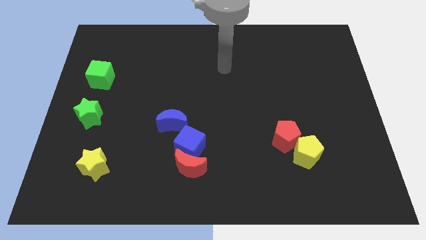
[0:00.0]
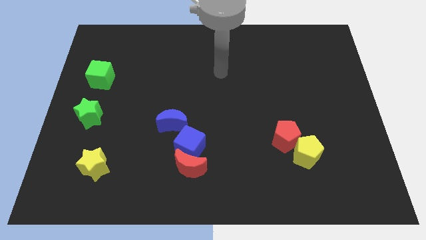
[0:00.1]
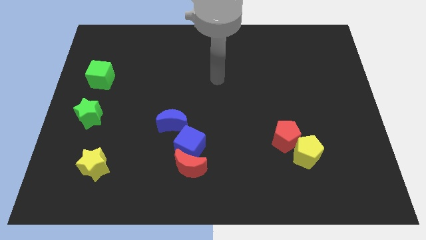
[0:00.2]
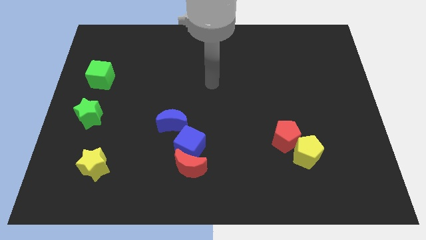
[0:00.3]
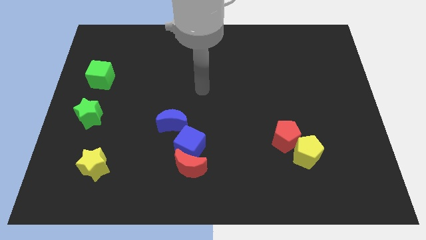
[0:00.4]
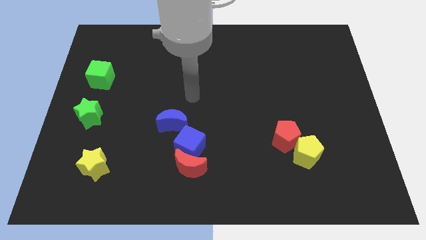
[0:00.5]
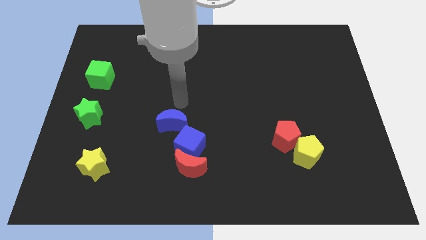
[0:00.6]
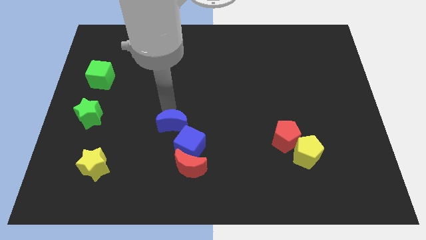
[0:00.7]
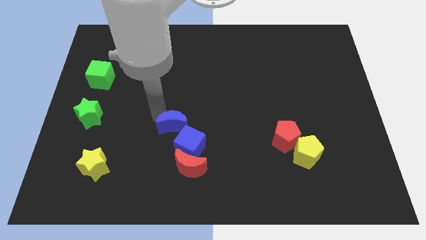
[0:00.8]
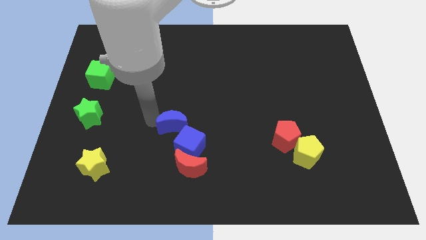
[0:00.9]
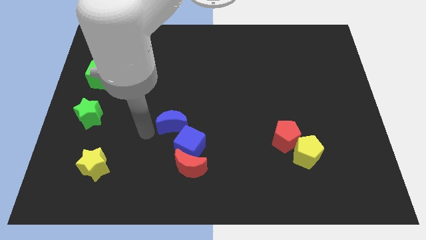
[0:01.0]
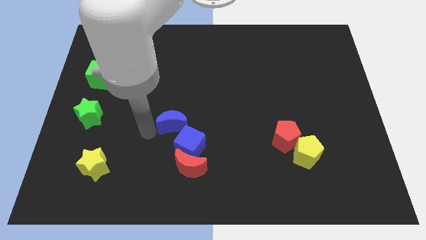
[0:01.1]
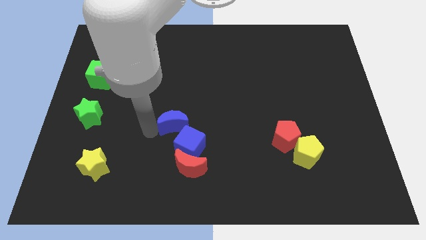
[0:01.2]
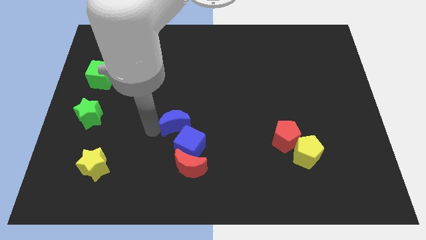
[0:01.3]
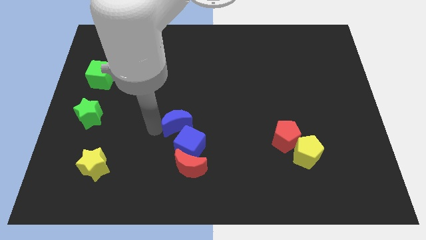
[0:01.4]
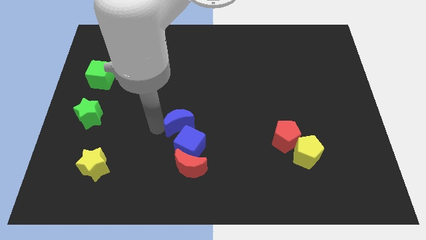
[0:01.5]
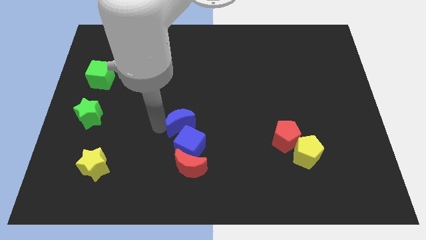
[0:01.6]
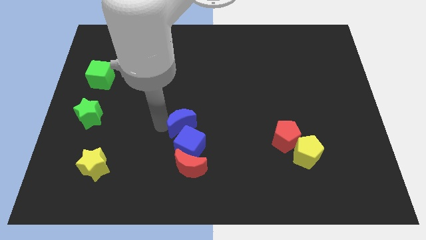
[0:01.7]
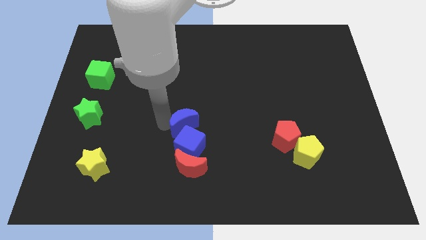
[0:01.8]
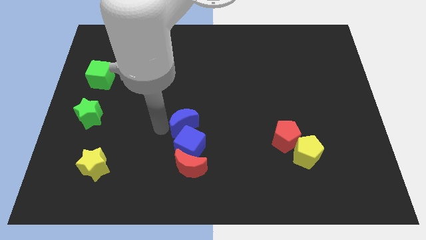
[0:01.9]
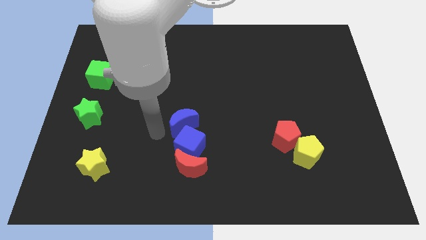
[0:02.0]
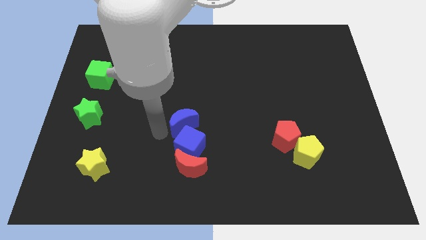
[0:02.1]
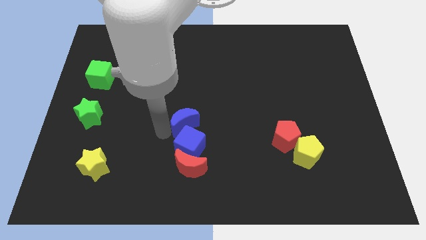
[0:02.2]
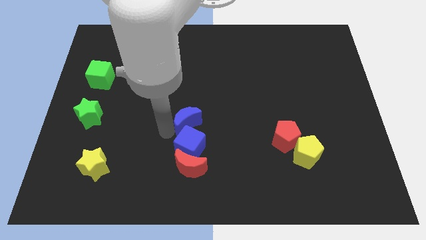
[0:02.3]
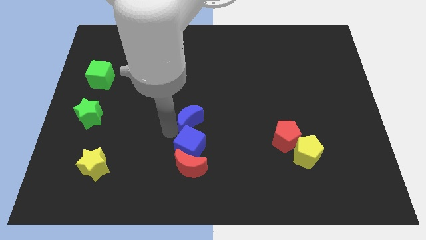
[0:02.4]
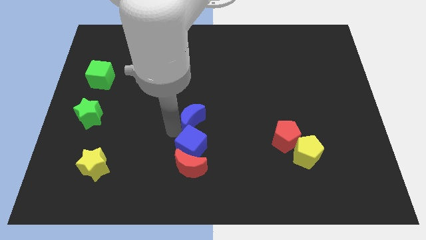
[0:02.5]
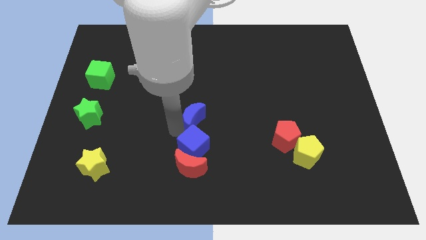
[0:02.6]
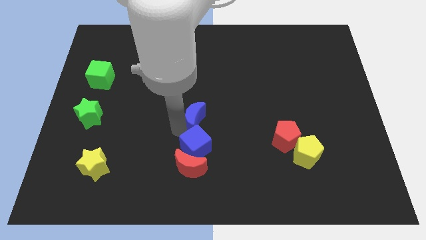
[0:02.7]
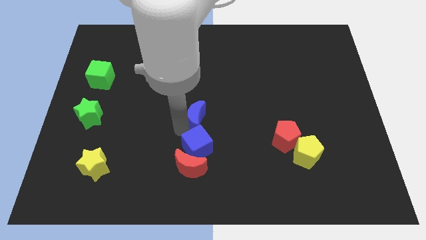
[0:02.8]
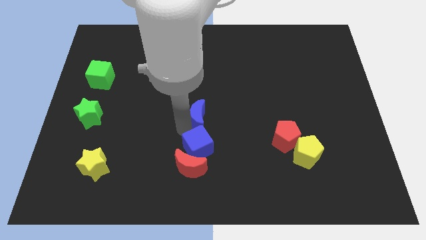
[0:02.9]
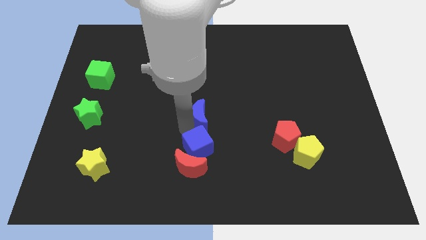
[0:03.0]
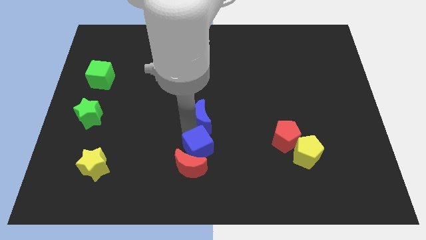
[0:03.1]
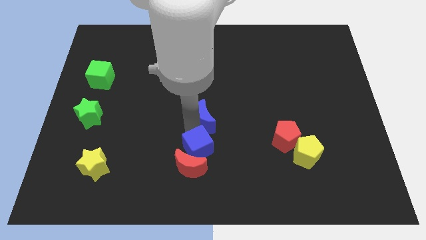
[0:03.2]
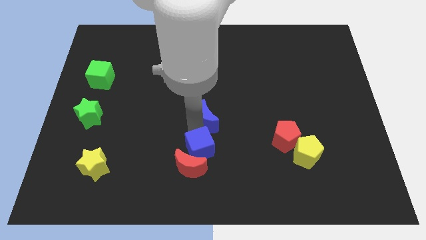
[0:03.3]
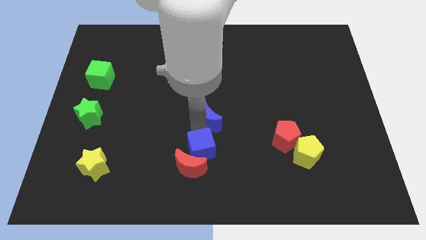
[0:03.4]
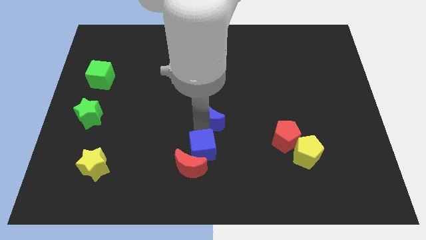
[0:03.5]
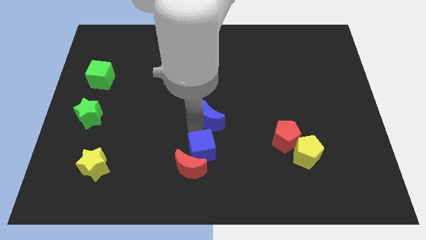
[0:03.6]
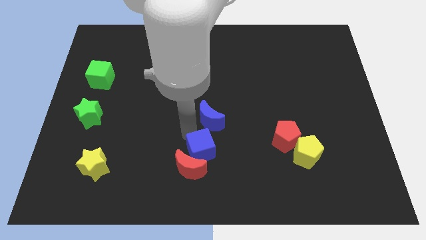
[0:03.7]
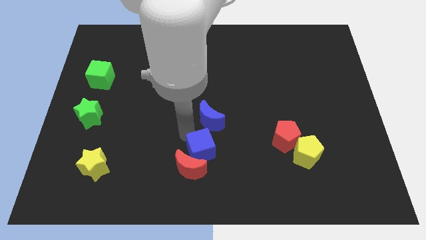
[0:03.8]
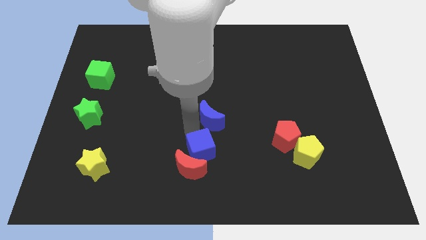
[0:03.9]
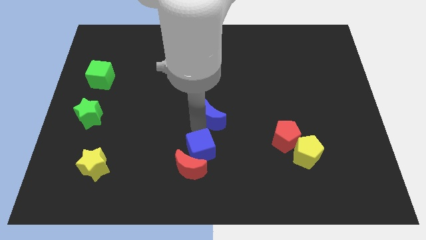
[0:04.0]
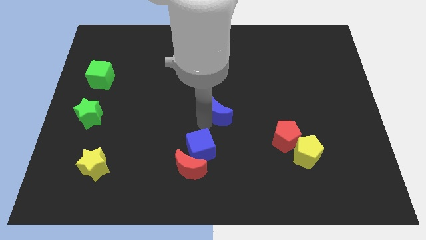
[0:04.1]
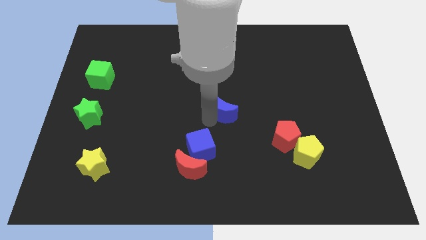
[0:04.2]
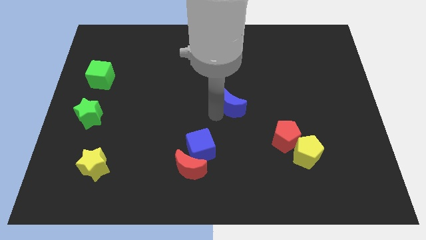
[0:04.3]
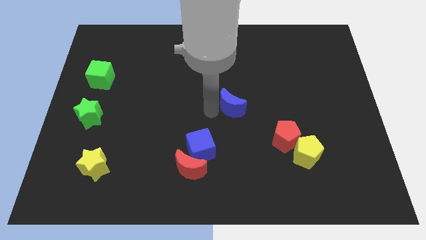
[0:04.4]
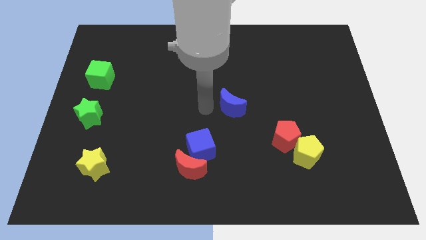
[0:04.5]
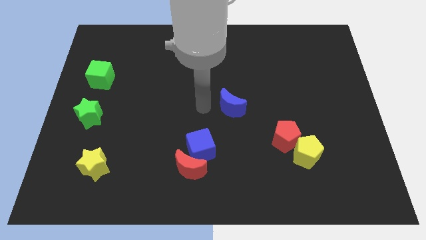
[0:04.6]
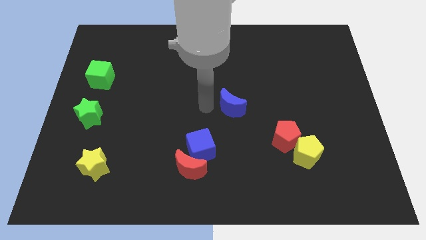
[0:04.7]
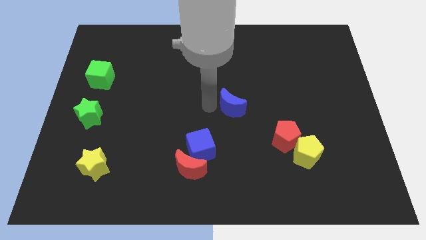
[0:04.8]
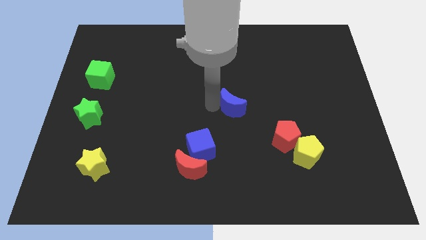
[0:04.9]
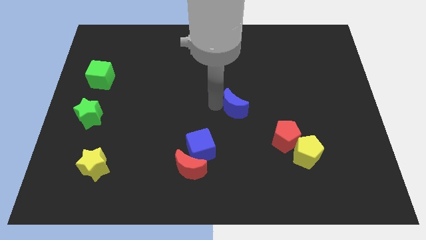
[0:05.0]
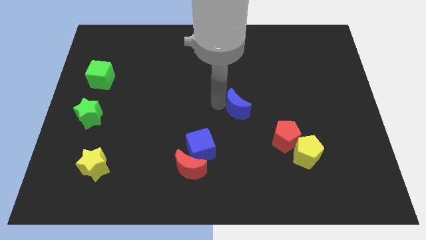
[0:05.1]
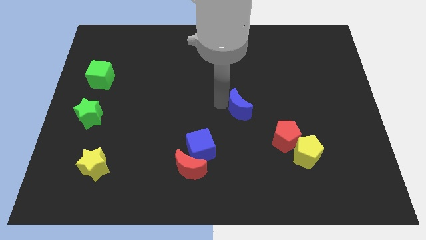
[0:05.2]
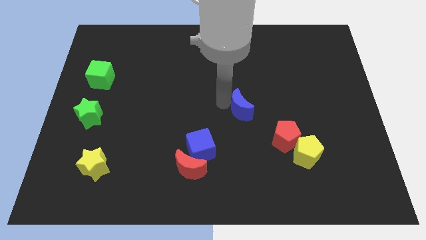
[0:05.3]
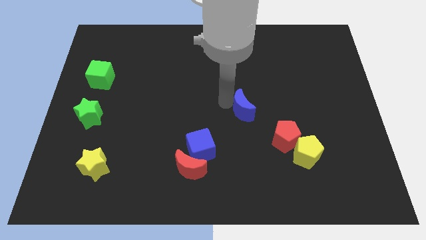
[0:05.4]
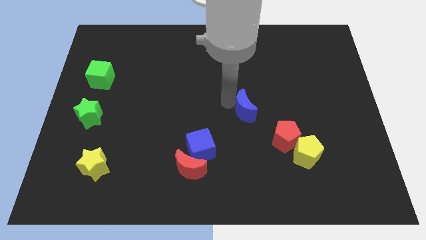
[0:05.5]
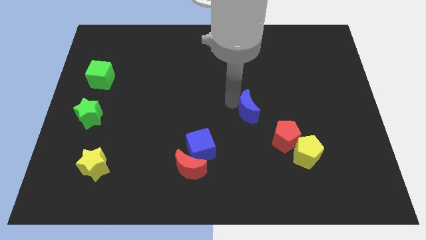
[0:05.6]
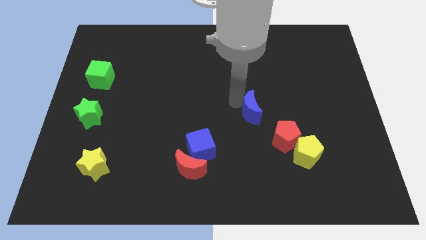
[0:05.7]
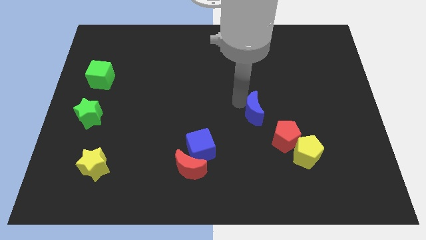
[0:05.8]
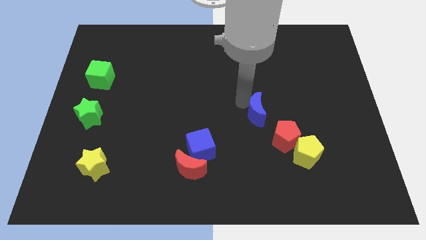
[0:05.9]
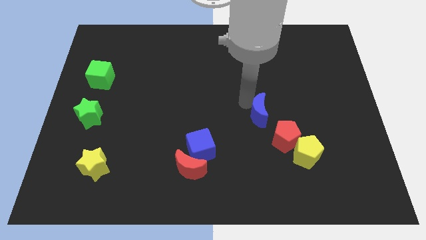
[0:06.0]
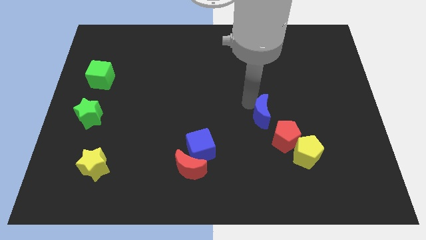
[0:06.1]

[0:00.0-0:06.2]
slide the blue moon to the right

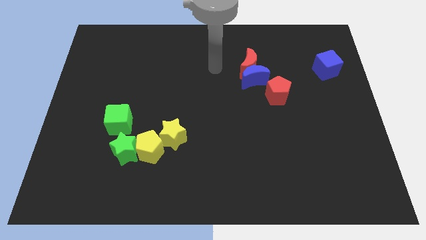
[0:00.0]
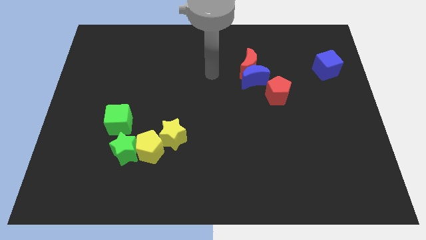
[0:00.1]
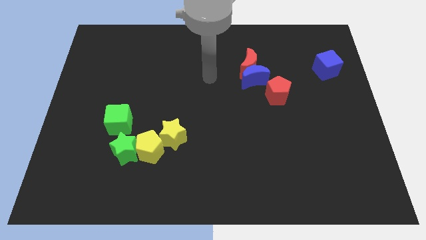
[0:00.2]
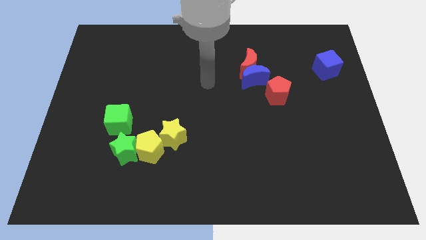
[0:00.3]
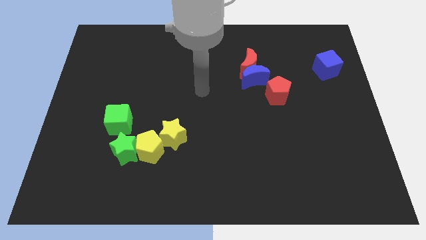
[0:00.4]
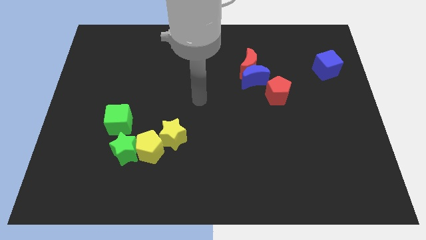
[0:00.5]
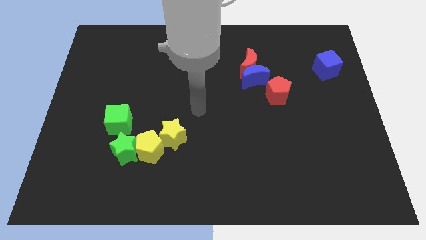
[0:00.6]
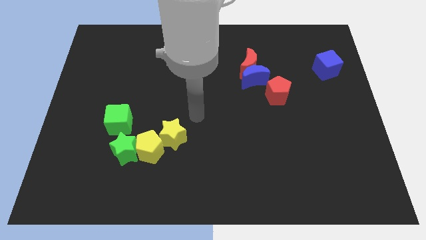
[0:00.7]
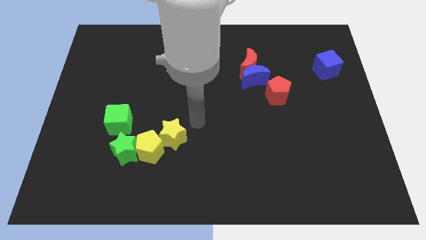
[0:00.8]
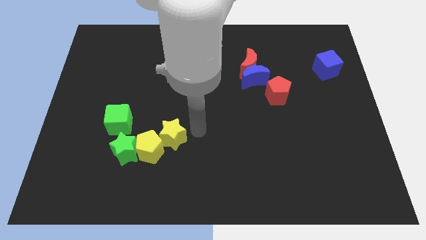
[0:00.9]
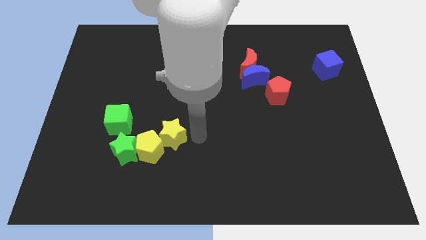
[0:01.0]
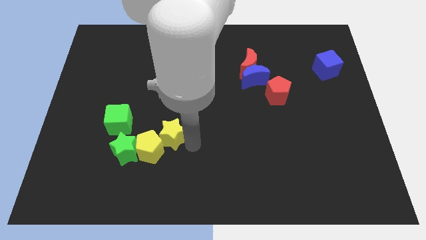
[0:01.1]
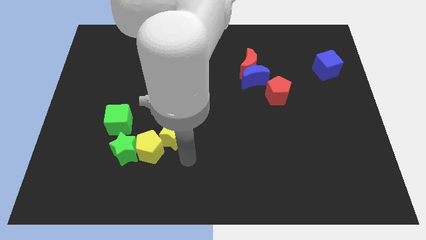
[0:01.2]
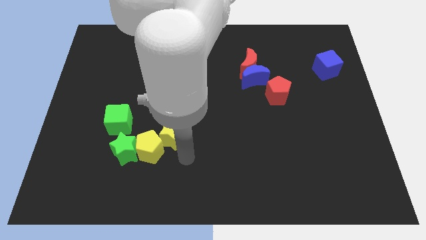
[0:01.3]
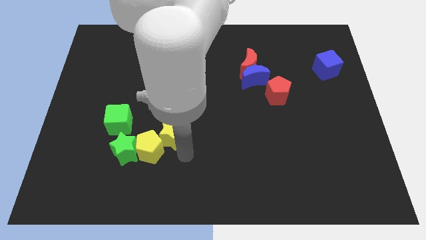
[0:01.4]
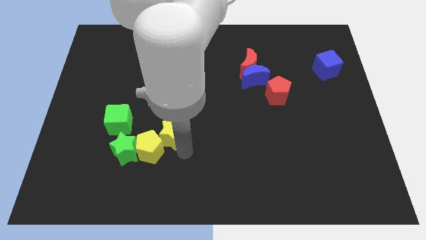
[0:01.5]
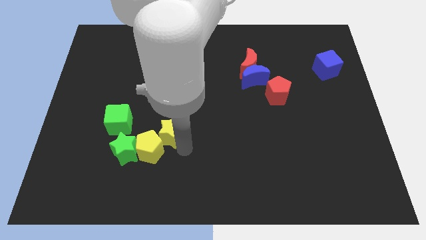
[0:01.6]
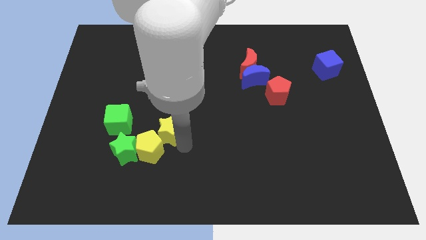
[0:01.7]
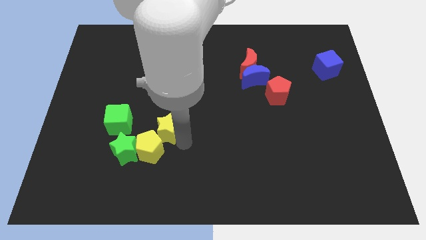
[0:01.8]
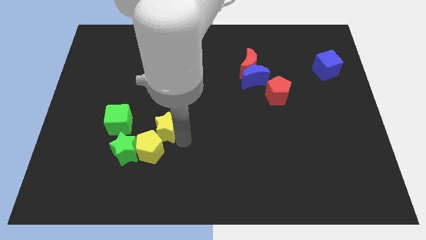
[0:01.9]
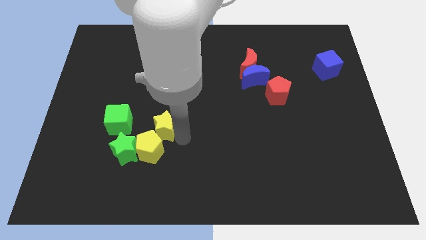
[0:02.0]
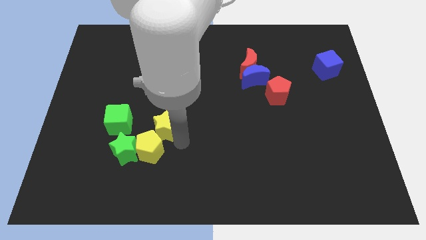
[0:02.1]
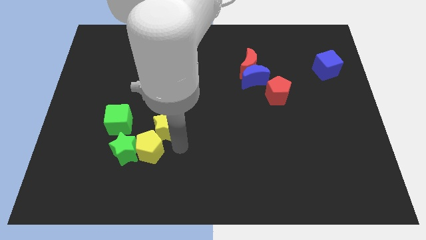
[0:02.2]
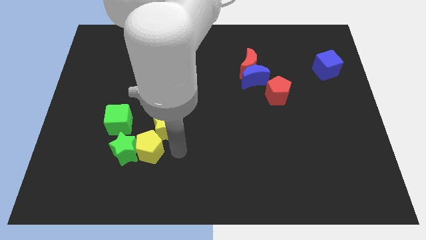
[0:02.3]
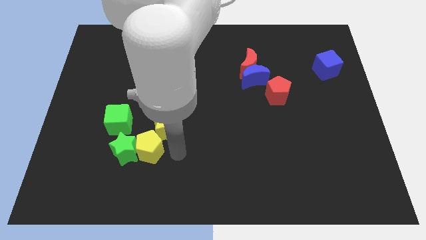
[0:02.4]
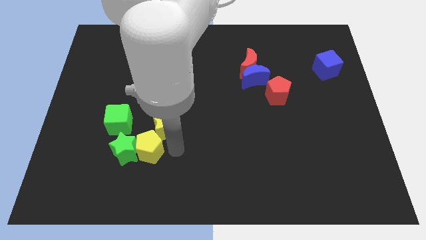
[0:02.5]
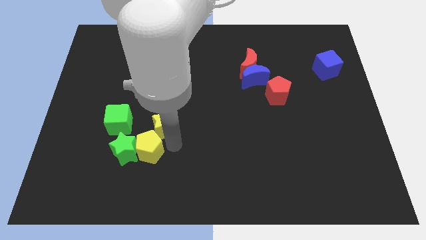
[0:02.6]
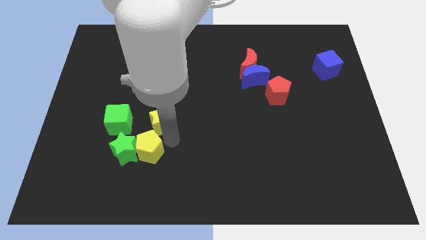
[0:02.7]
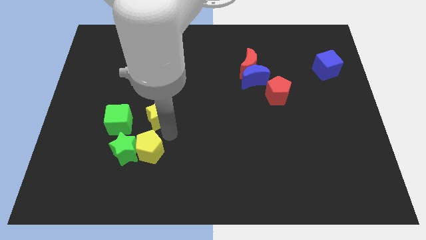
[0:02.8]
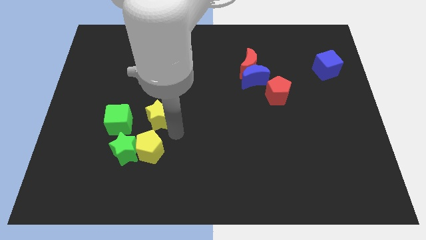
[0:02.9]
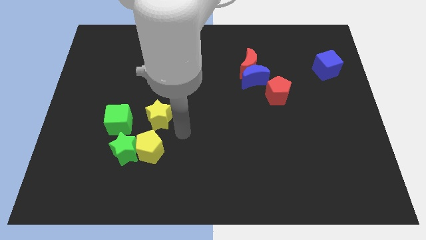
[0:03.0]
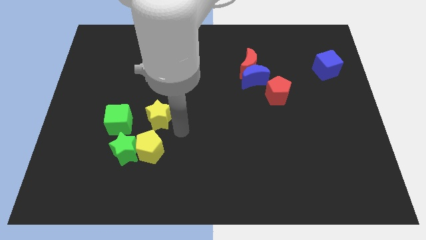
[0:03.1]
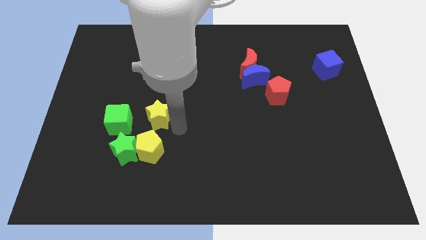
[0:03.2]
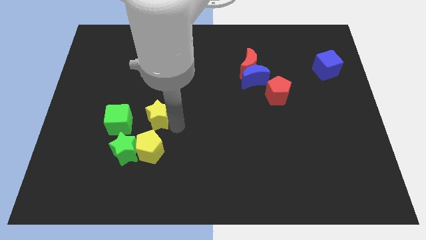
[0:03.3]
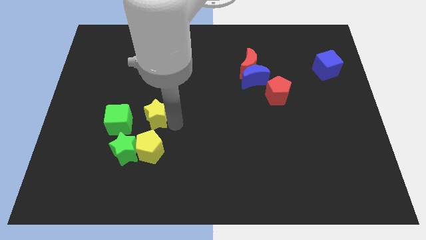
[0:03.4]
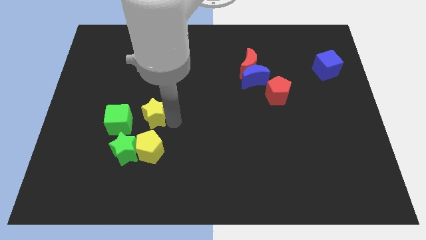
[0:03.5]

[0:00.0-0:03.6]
push the yellow star diagonally upwards and left a little
